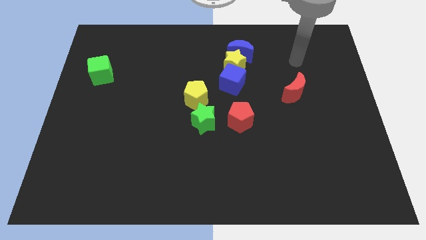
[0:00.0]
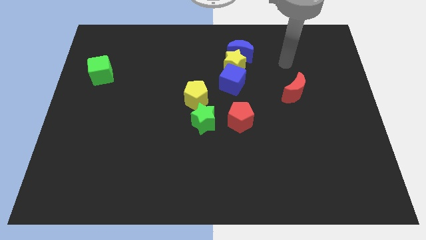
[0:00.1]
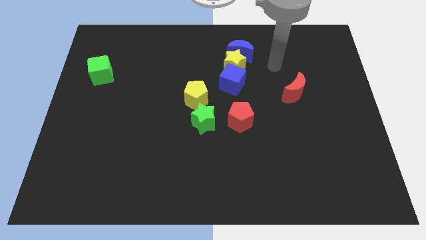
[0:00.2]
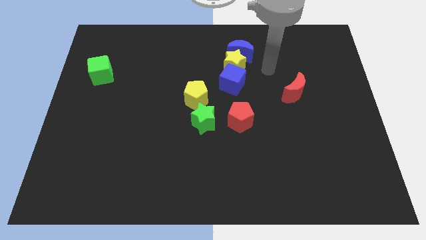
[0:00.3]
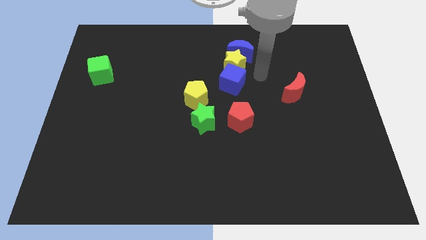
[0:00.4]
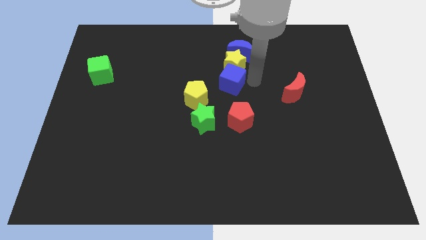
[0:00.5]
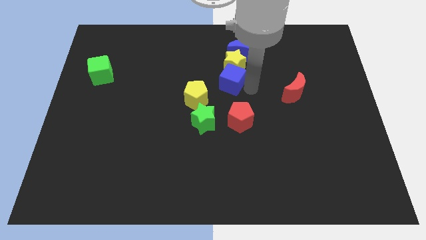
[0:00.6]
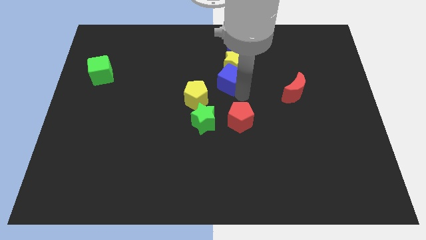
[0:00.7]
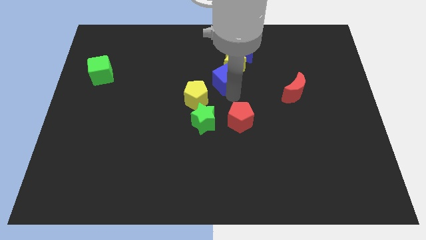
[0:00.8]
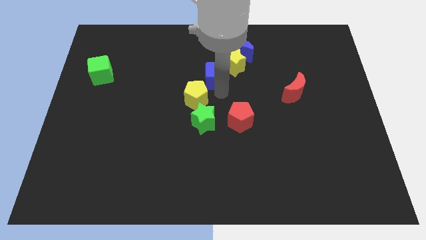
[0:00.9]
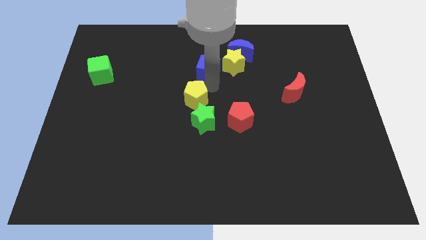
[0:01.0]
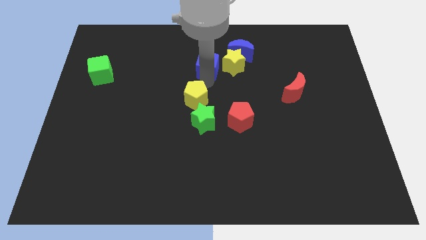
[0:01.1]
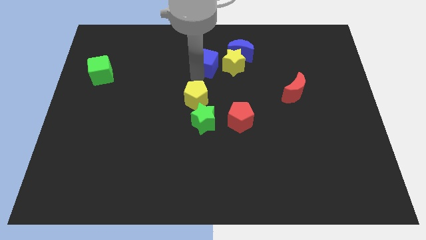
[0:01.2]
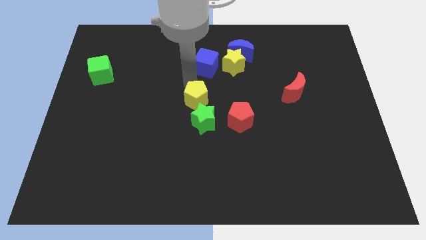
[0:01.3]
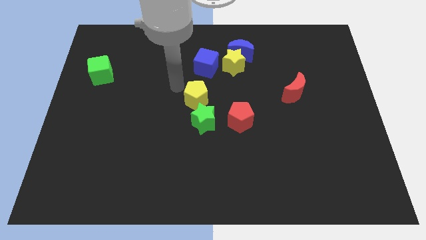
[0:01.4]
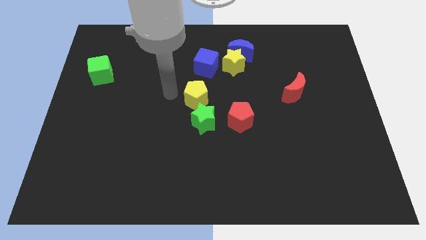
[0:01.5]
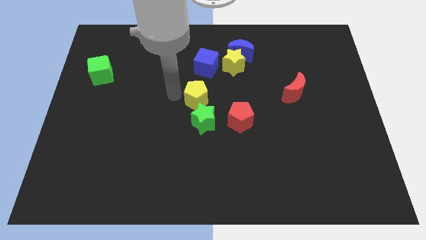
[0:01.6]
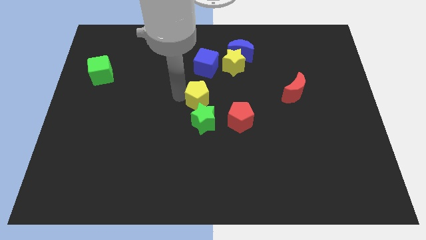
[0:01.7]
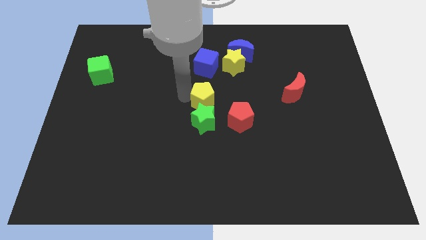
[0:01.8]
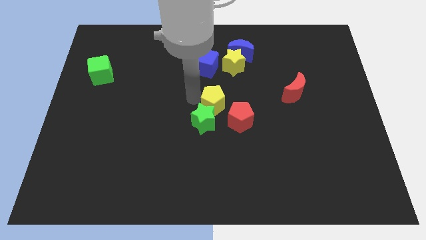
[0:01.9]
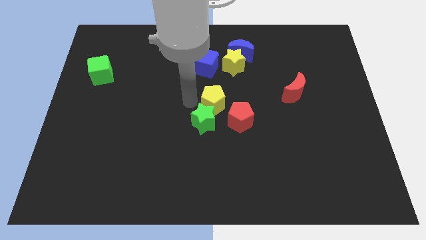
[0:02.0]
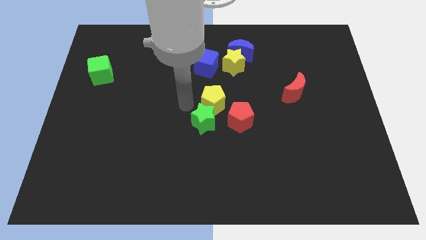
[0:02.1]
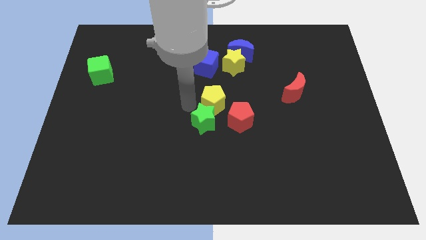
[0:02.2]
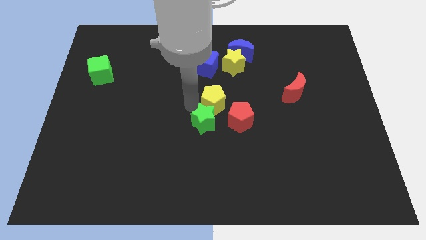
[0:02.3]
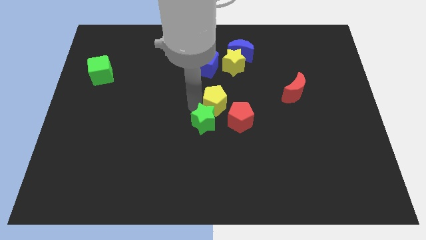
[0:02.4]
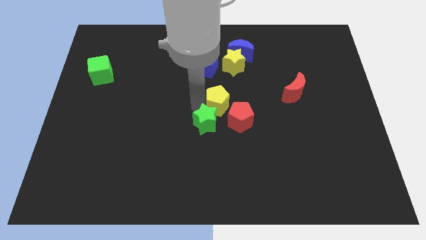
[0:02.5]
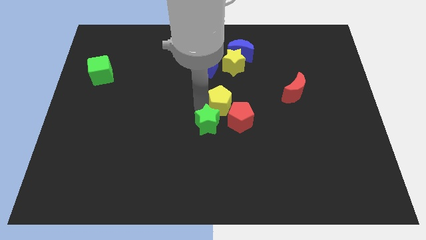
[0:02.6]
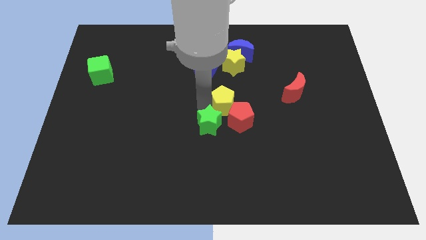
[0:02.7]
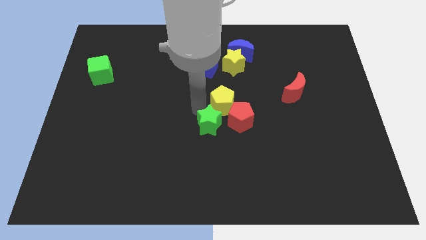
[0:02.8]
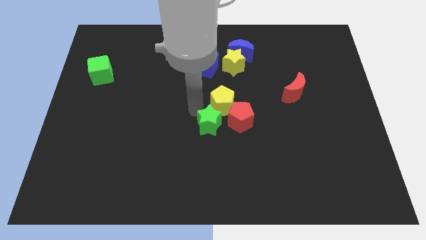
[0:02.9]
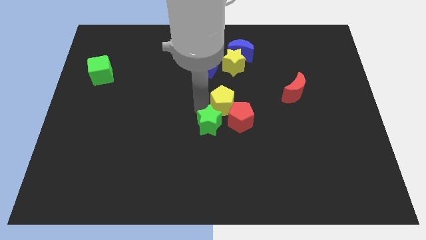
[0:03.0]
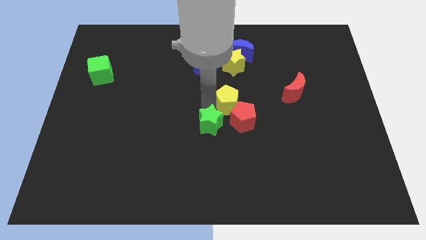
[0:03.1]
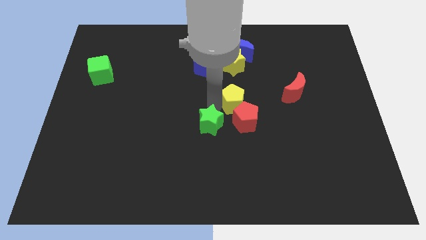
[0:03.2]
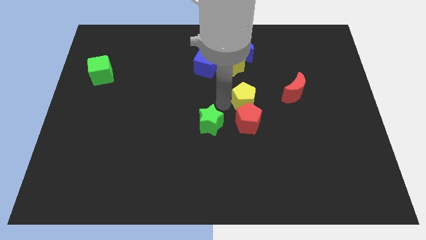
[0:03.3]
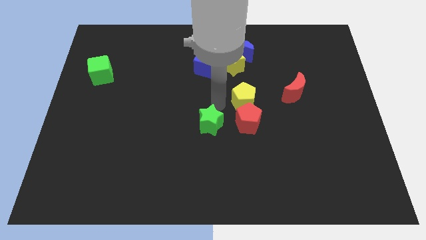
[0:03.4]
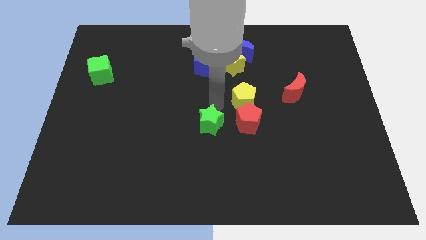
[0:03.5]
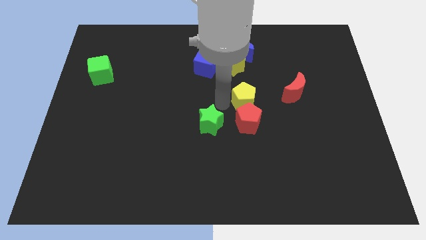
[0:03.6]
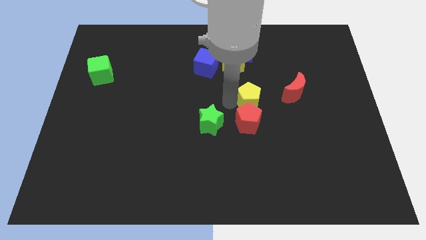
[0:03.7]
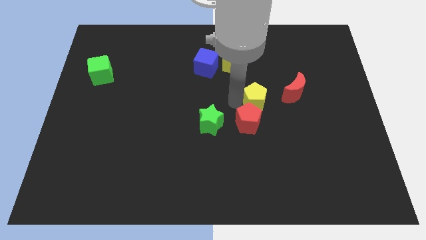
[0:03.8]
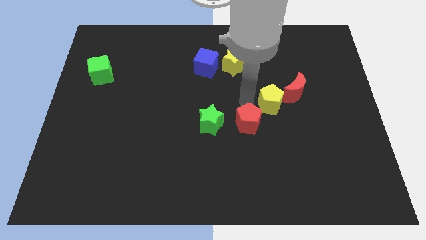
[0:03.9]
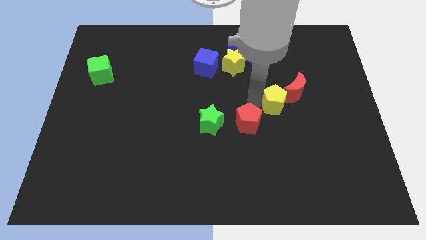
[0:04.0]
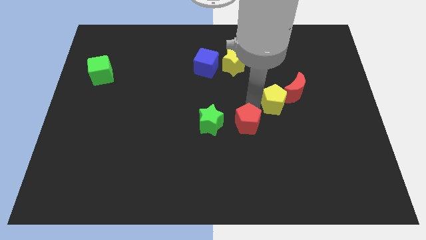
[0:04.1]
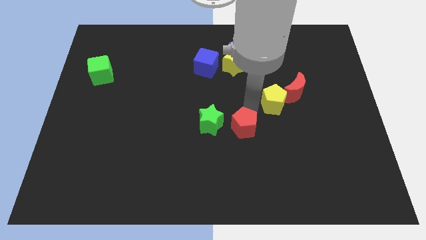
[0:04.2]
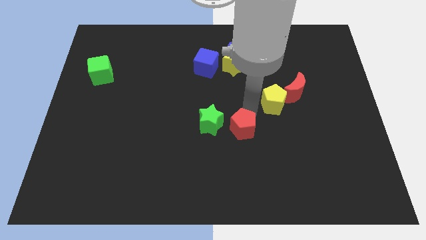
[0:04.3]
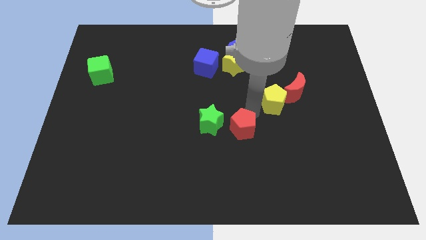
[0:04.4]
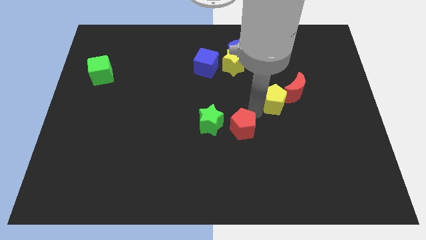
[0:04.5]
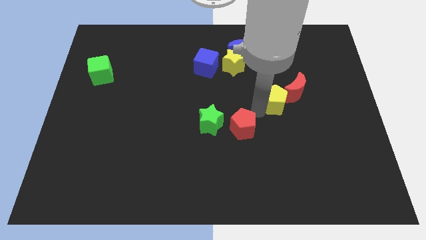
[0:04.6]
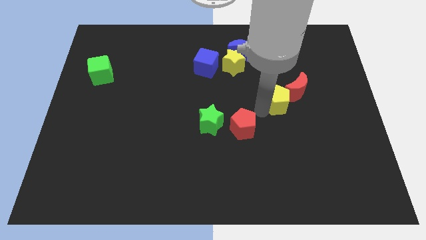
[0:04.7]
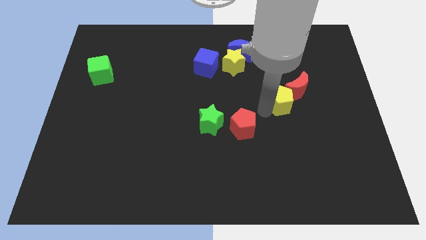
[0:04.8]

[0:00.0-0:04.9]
push the yellow pentagon to the red moon

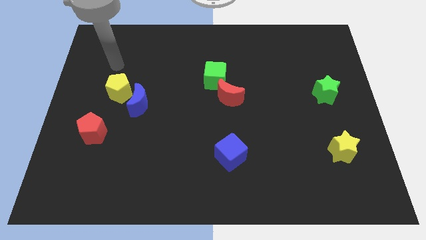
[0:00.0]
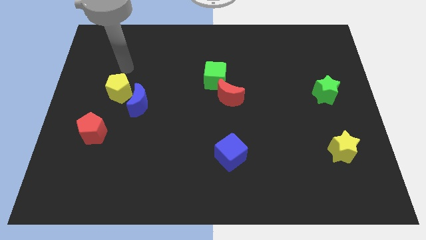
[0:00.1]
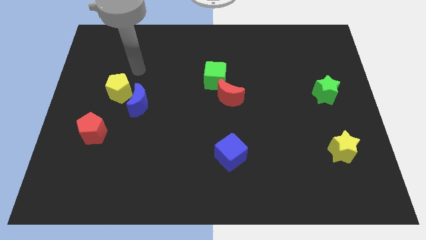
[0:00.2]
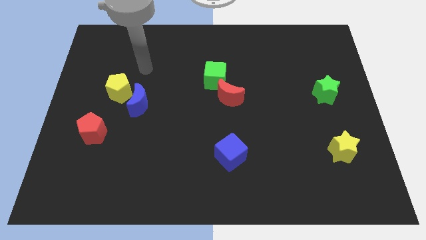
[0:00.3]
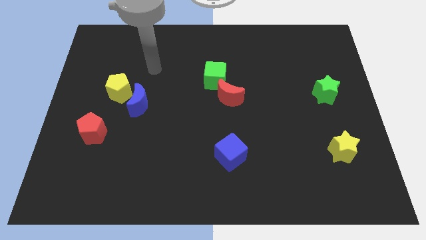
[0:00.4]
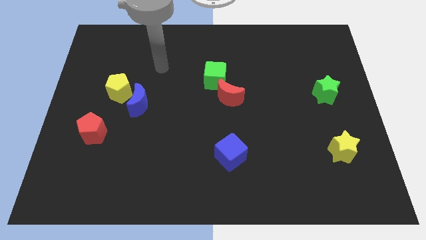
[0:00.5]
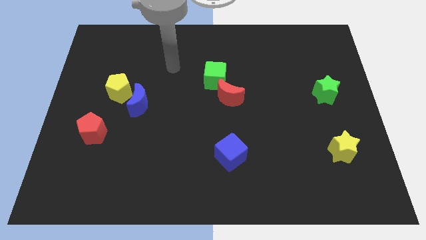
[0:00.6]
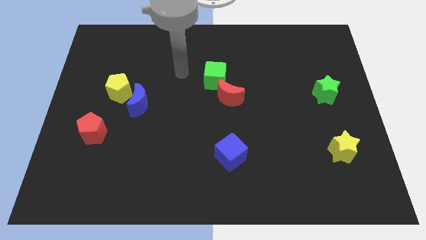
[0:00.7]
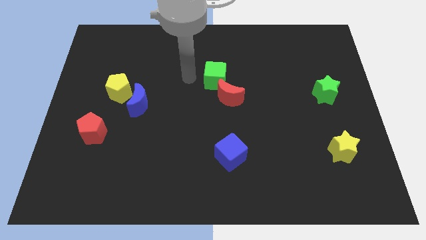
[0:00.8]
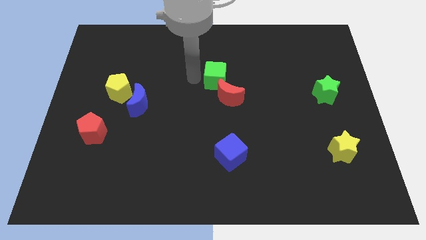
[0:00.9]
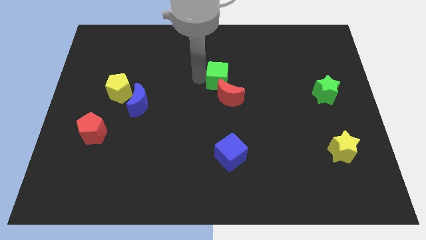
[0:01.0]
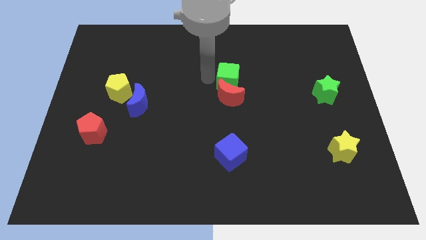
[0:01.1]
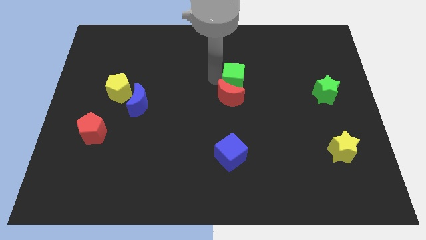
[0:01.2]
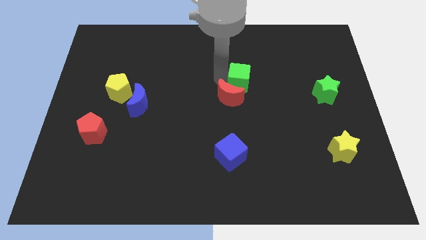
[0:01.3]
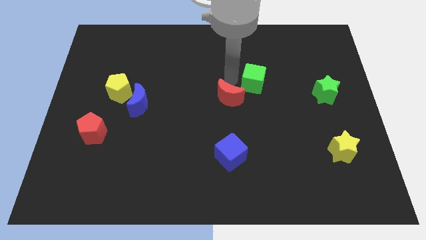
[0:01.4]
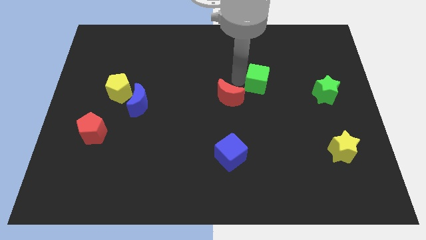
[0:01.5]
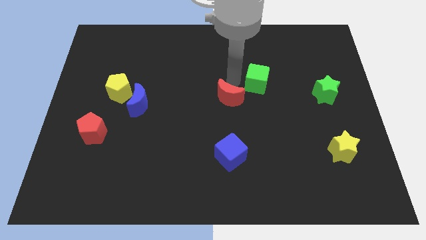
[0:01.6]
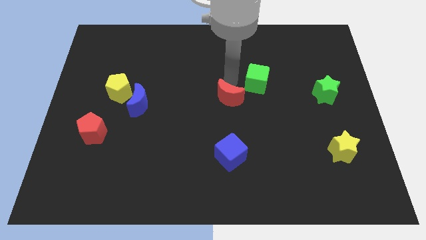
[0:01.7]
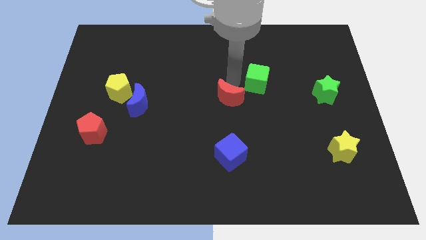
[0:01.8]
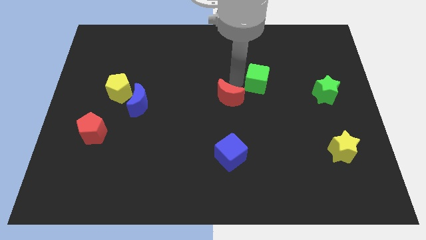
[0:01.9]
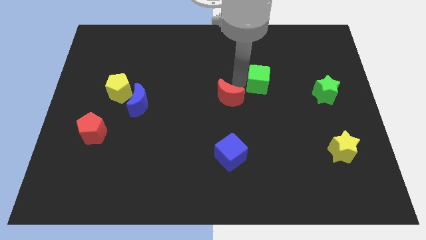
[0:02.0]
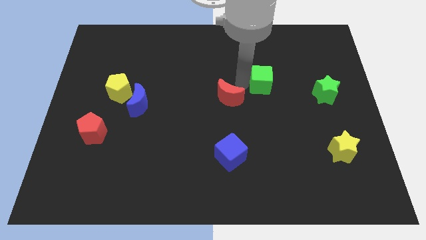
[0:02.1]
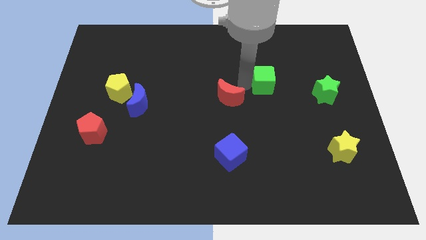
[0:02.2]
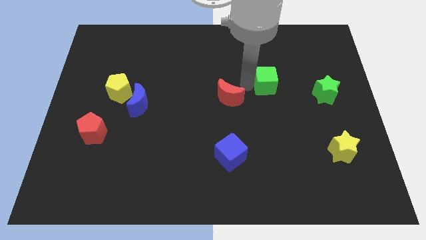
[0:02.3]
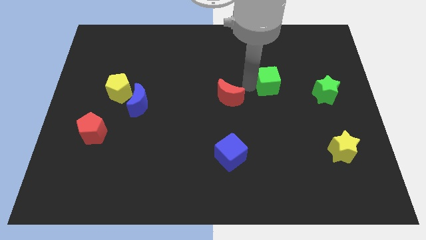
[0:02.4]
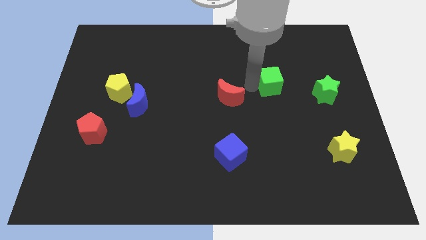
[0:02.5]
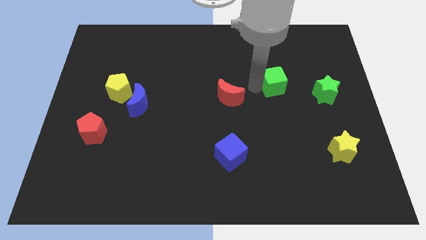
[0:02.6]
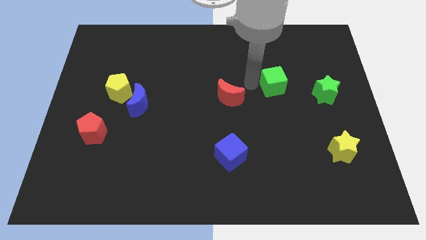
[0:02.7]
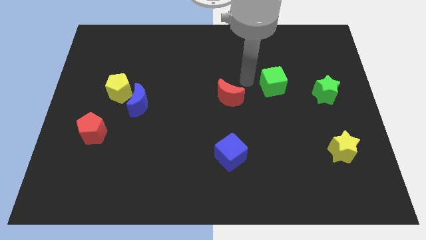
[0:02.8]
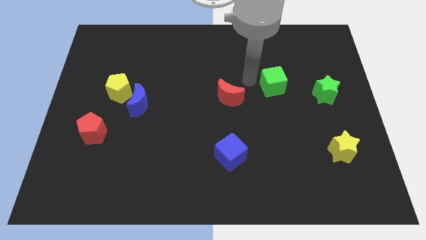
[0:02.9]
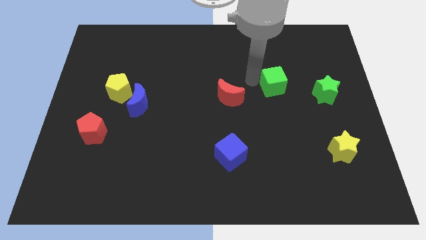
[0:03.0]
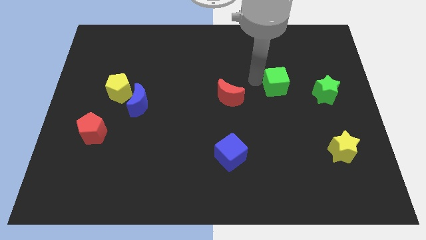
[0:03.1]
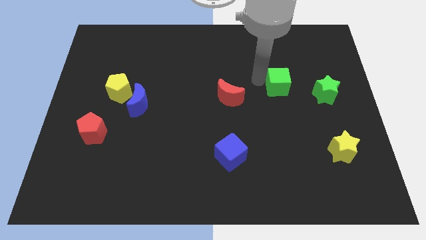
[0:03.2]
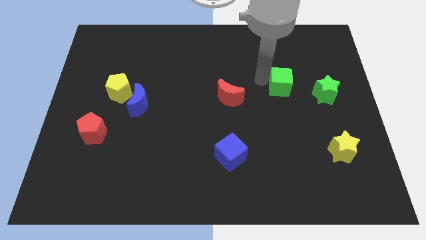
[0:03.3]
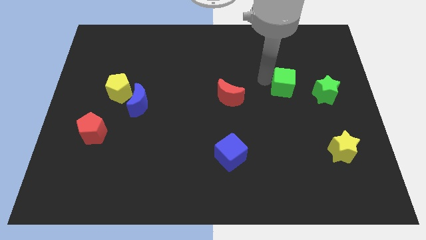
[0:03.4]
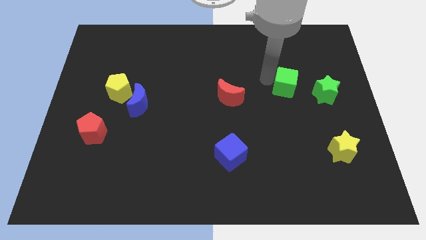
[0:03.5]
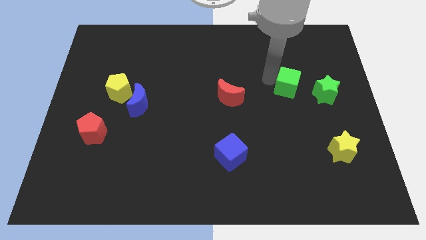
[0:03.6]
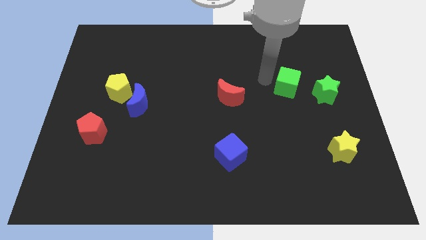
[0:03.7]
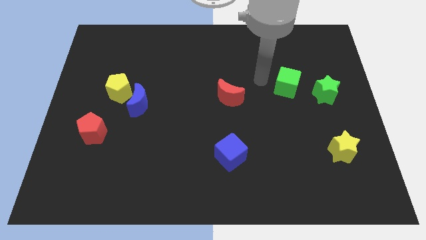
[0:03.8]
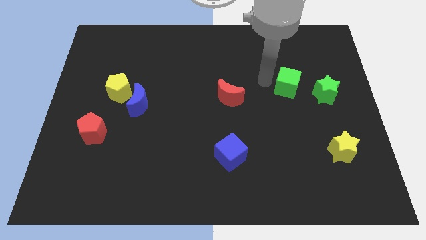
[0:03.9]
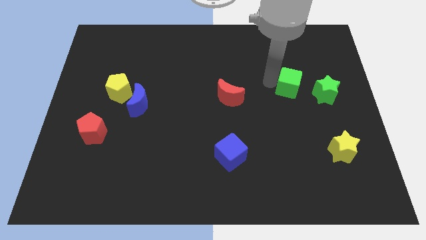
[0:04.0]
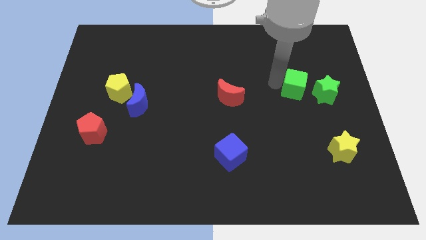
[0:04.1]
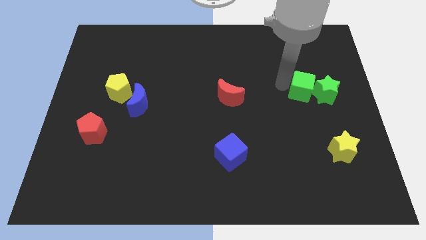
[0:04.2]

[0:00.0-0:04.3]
put the green cube close to the green star
